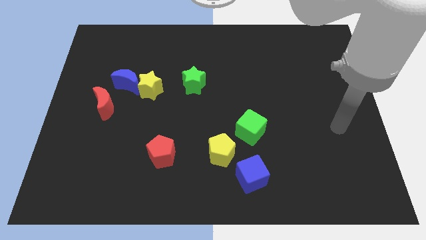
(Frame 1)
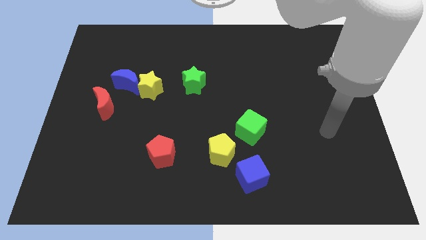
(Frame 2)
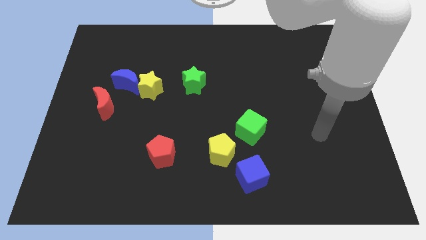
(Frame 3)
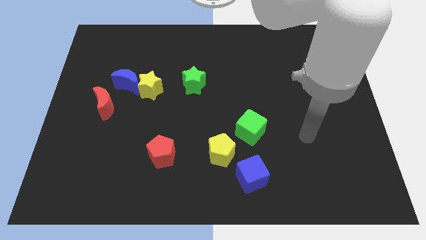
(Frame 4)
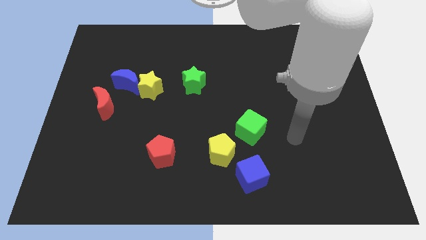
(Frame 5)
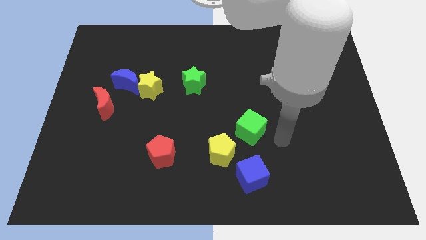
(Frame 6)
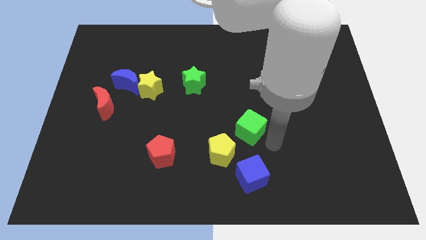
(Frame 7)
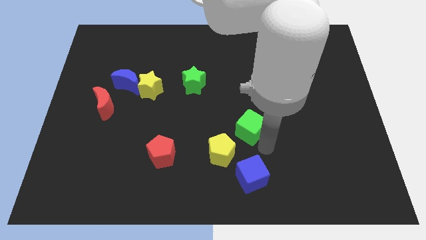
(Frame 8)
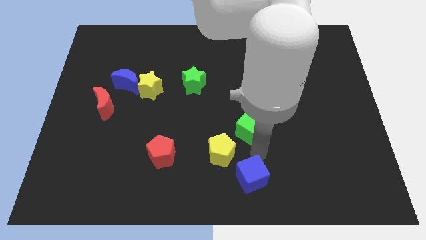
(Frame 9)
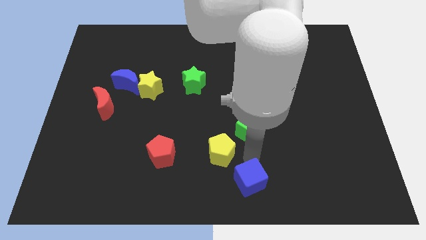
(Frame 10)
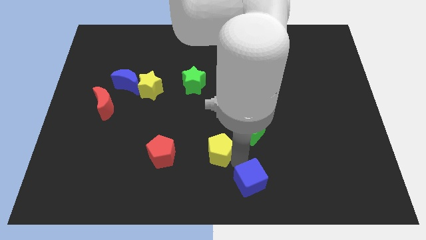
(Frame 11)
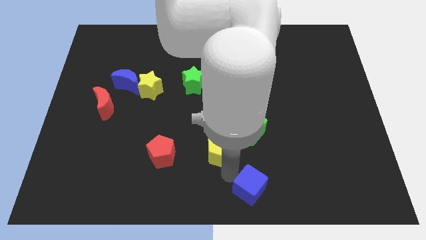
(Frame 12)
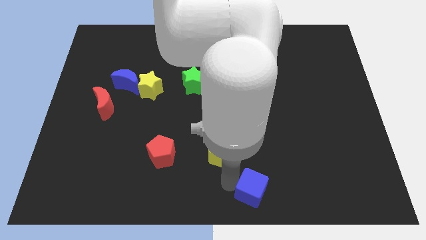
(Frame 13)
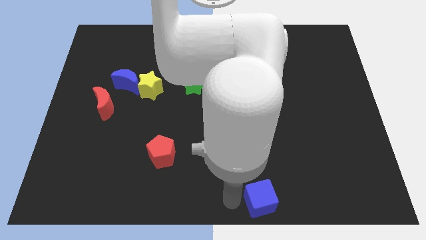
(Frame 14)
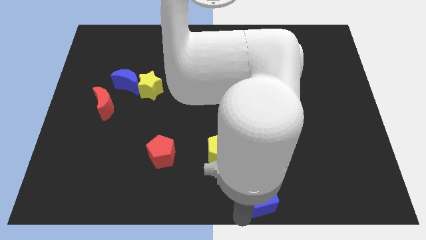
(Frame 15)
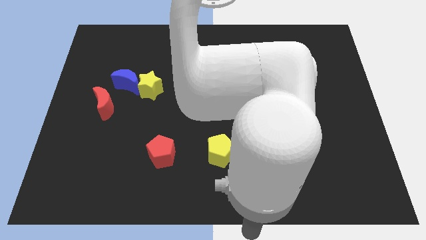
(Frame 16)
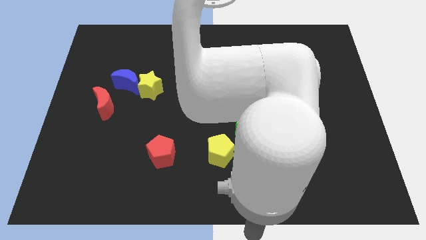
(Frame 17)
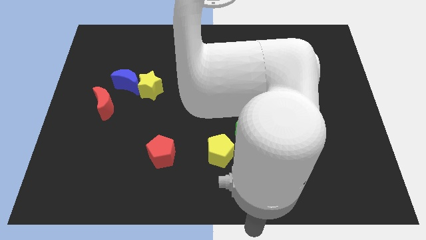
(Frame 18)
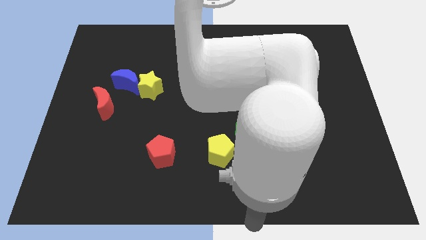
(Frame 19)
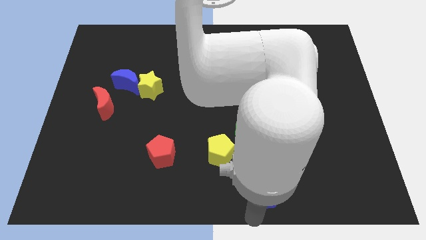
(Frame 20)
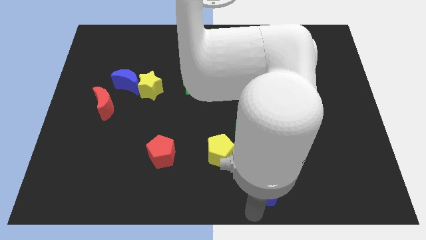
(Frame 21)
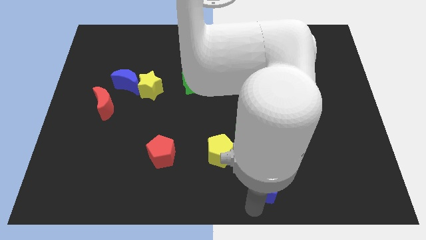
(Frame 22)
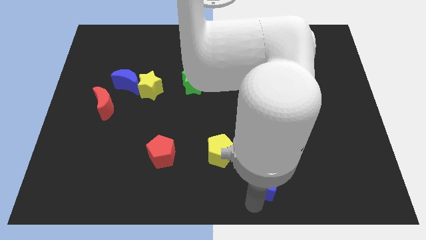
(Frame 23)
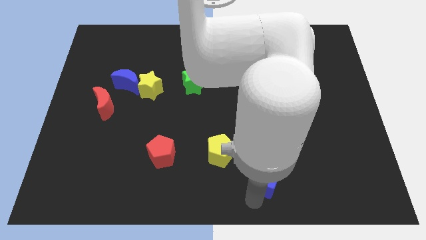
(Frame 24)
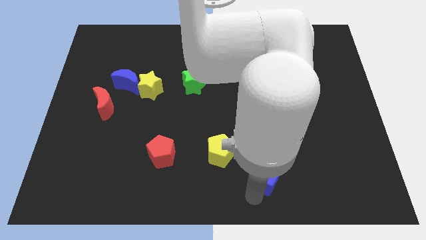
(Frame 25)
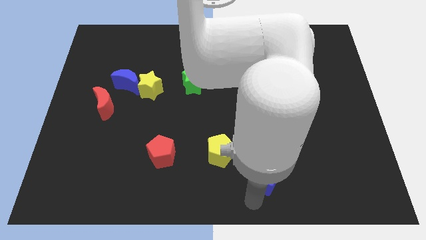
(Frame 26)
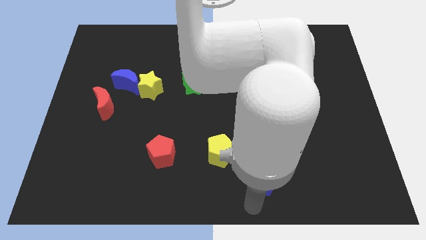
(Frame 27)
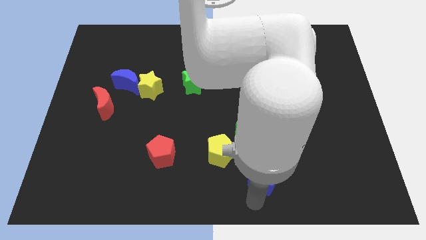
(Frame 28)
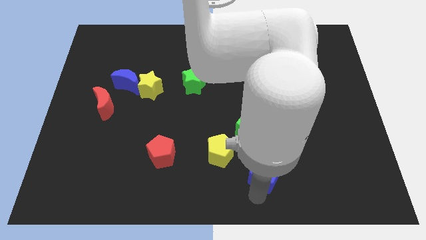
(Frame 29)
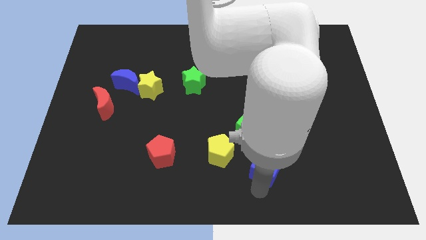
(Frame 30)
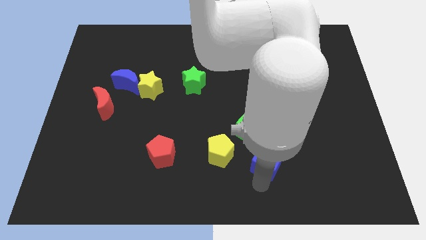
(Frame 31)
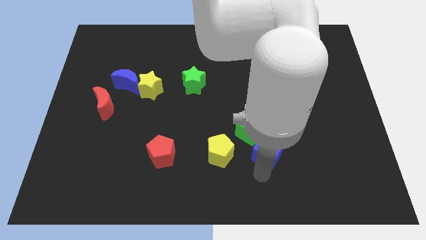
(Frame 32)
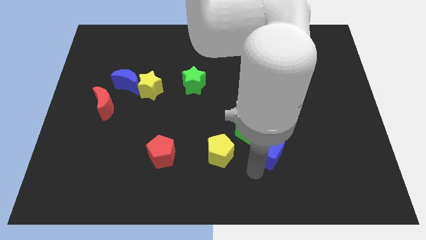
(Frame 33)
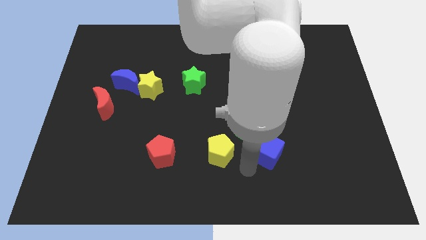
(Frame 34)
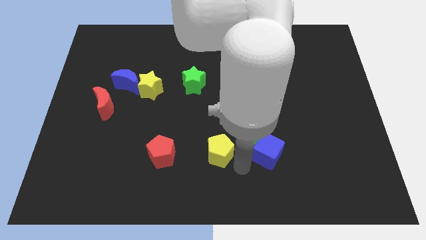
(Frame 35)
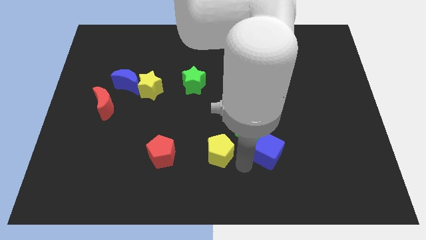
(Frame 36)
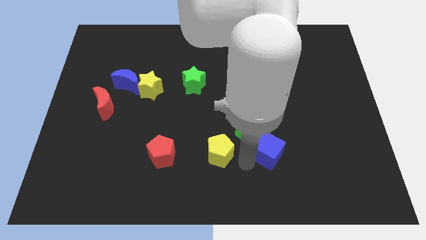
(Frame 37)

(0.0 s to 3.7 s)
move the blue cube a little bit diagonally up and right

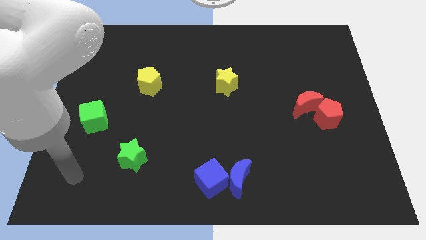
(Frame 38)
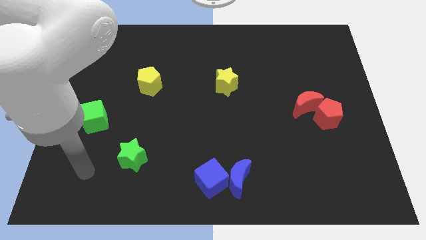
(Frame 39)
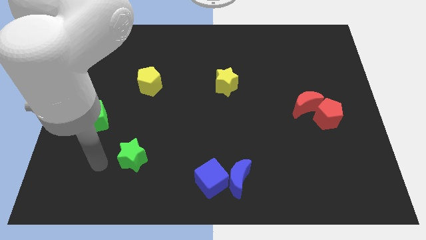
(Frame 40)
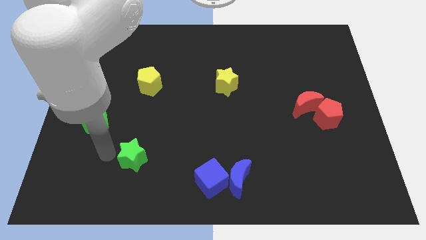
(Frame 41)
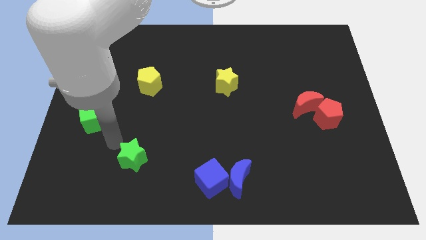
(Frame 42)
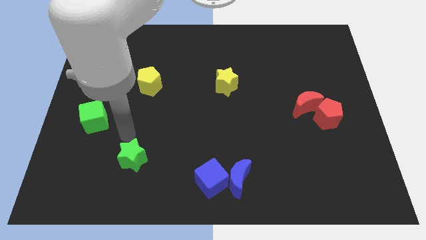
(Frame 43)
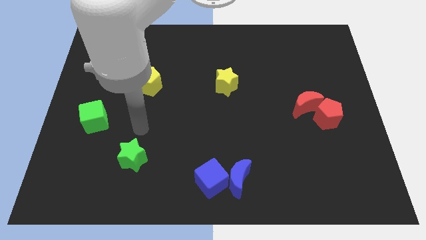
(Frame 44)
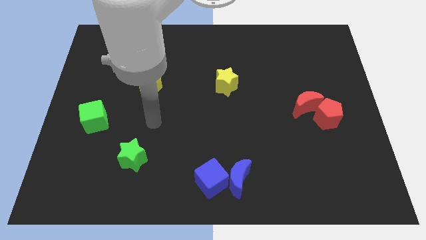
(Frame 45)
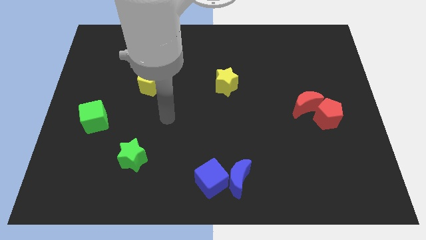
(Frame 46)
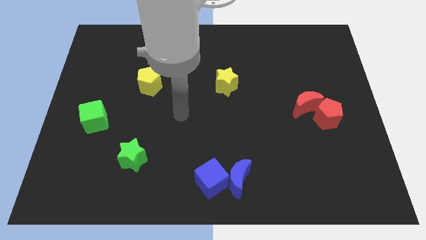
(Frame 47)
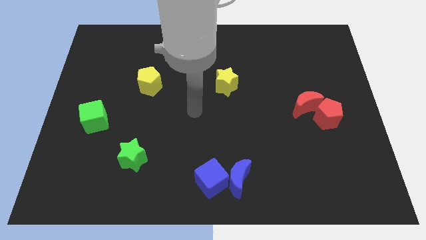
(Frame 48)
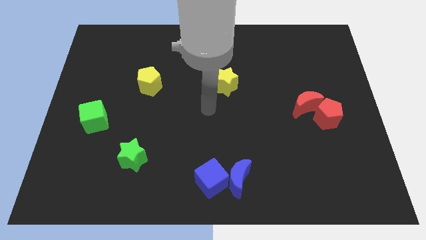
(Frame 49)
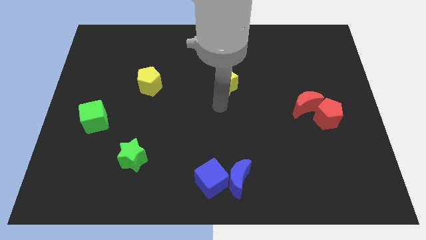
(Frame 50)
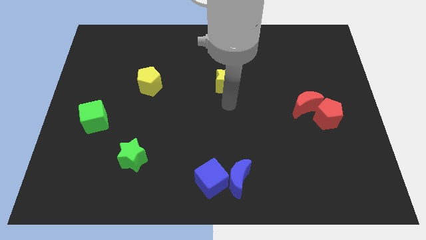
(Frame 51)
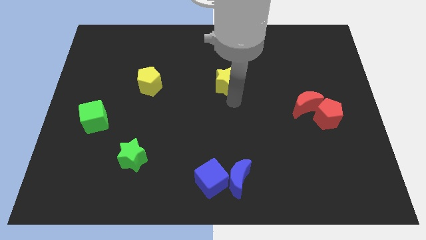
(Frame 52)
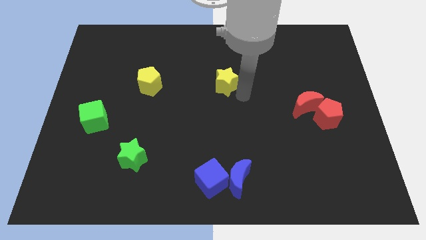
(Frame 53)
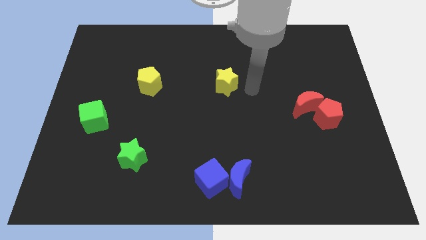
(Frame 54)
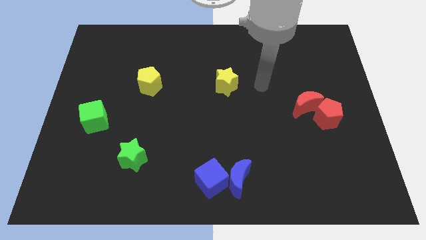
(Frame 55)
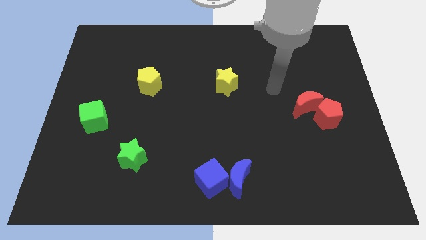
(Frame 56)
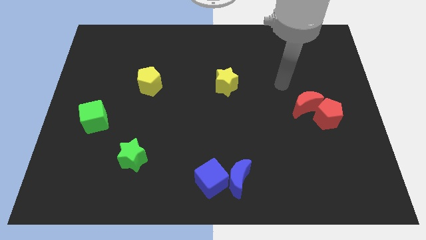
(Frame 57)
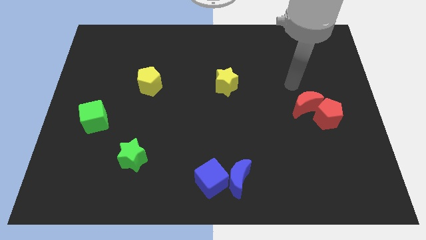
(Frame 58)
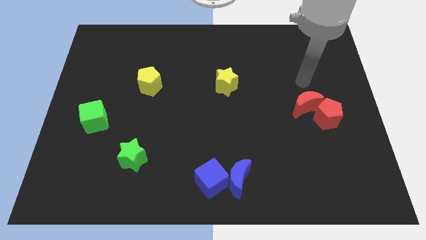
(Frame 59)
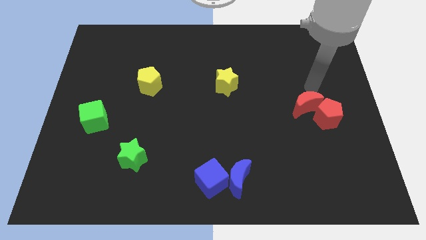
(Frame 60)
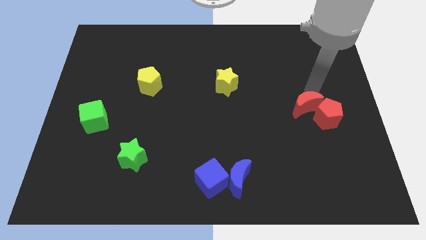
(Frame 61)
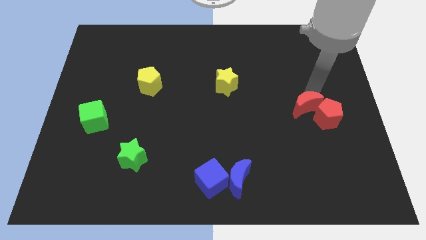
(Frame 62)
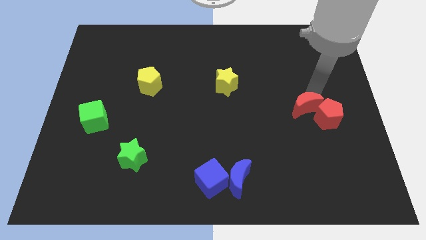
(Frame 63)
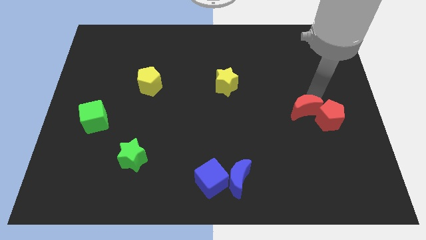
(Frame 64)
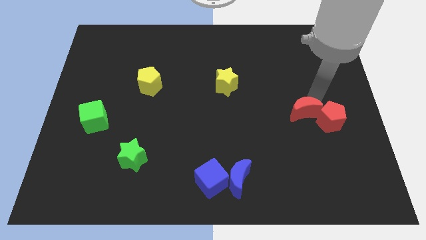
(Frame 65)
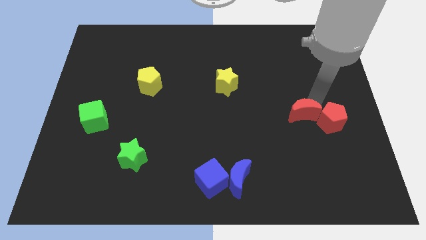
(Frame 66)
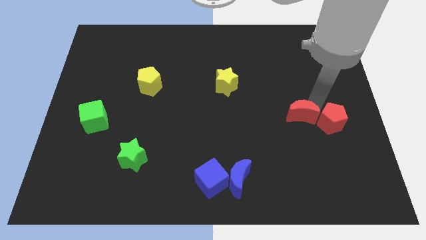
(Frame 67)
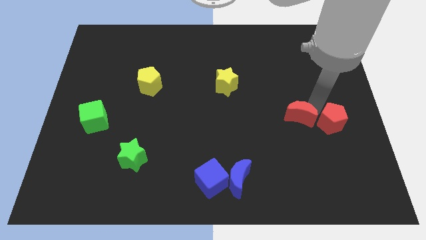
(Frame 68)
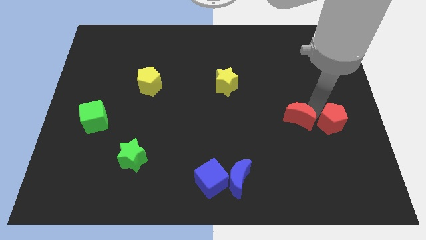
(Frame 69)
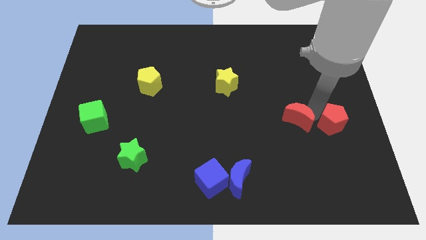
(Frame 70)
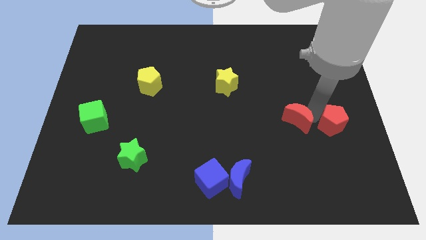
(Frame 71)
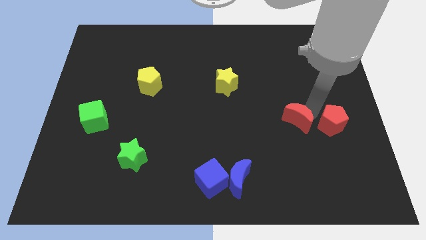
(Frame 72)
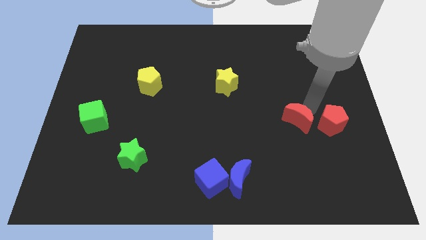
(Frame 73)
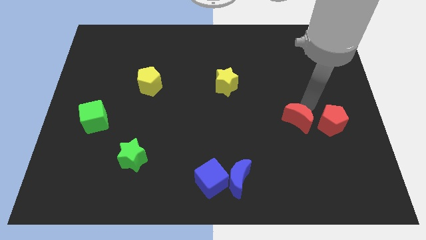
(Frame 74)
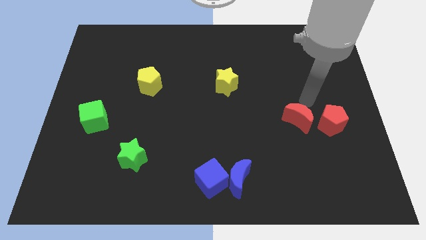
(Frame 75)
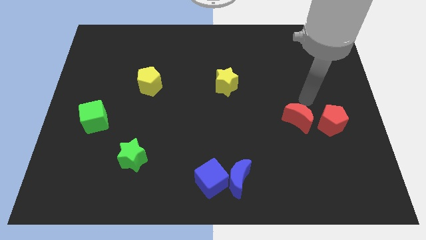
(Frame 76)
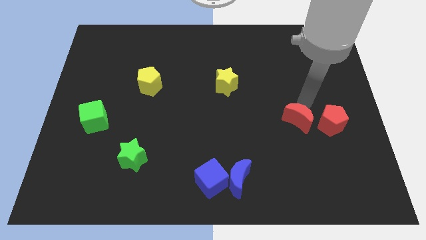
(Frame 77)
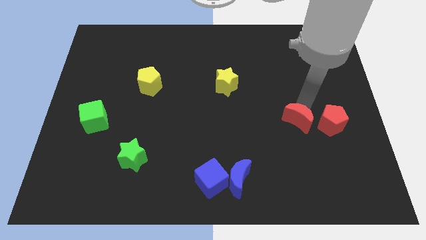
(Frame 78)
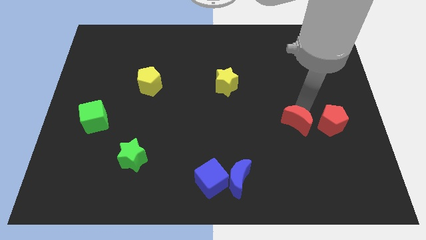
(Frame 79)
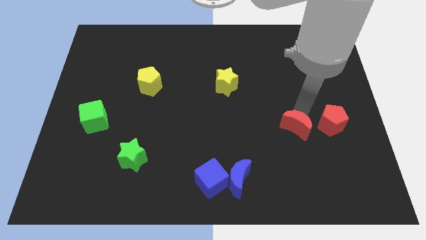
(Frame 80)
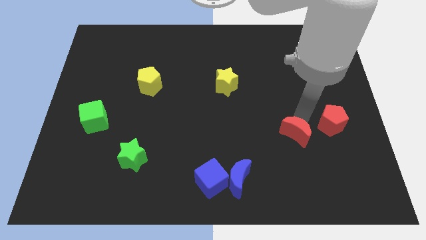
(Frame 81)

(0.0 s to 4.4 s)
push the red moon a little bit down and then left

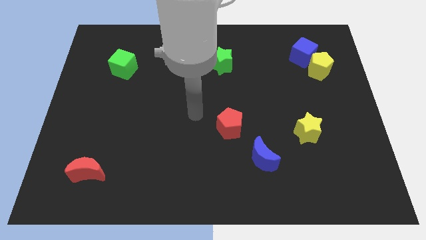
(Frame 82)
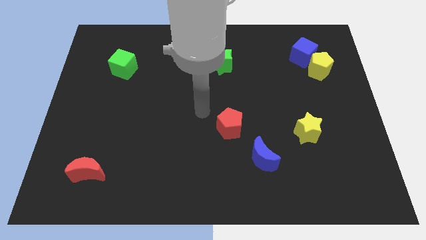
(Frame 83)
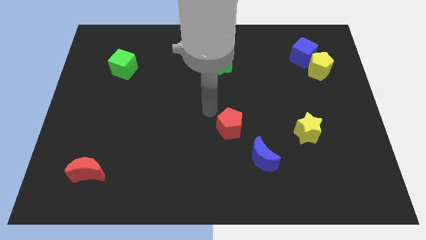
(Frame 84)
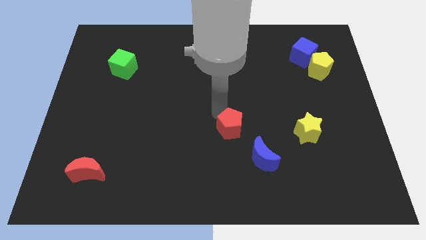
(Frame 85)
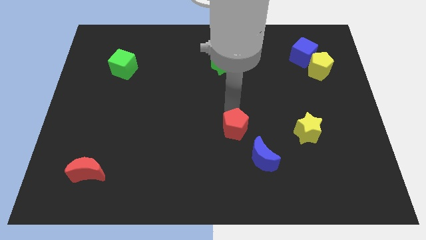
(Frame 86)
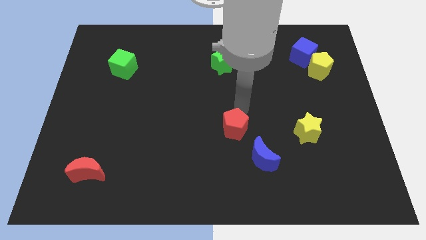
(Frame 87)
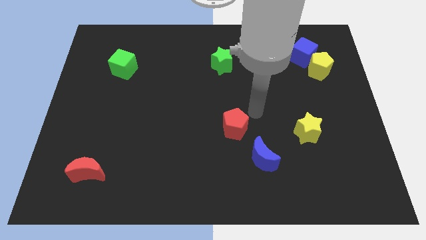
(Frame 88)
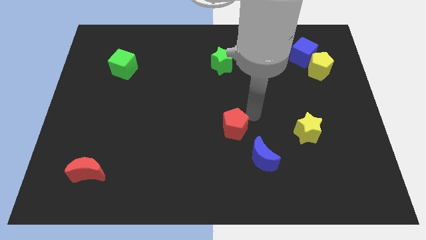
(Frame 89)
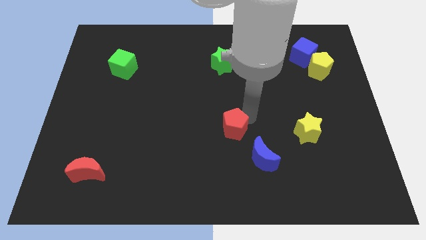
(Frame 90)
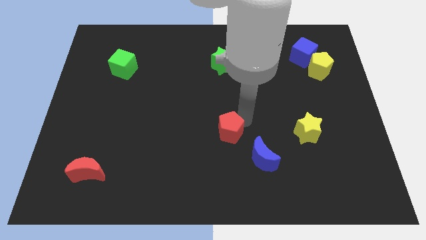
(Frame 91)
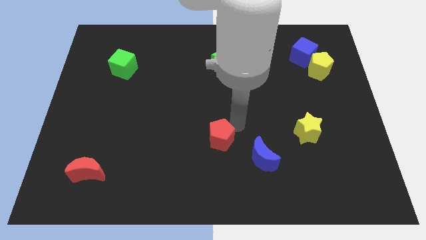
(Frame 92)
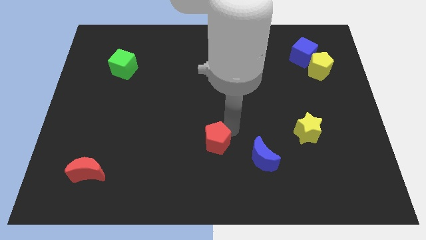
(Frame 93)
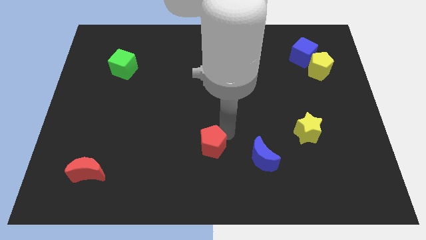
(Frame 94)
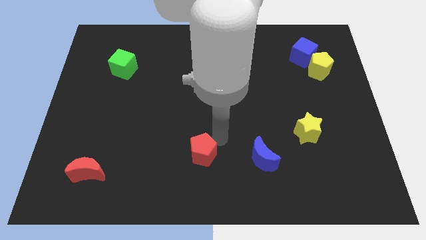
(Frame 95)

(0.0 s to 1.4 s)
slightly slide the red pentagon downwards and to the left diagonally
